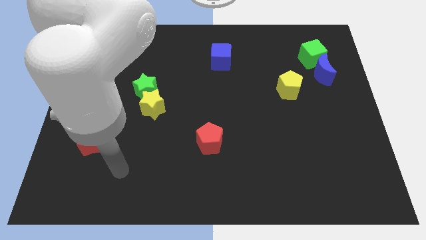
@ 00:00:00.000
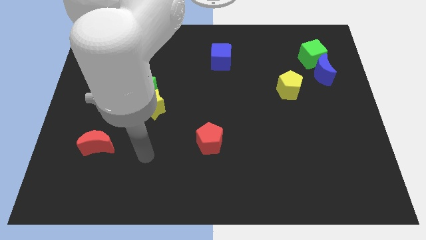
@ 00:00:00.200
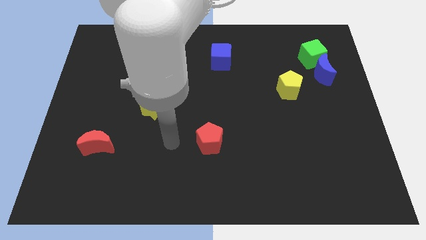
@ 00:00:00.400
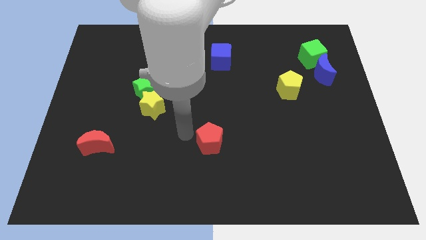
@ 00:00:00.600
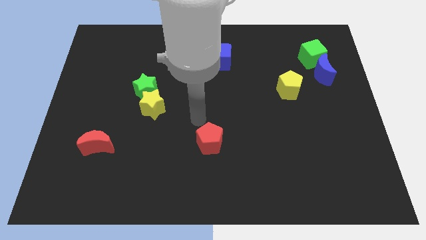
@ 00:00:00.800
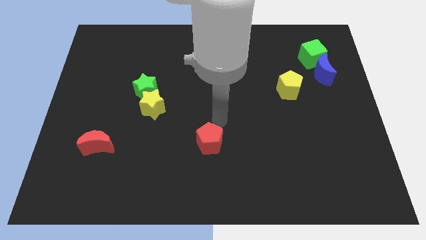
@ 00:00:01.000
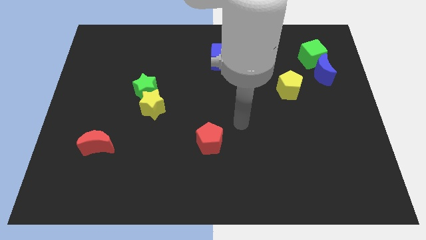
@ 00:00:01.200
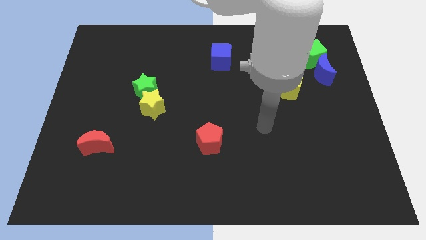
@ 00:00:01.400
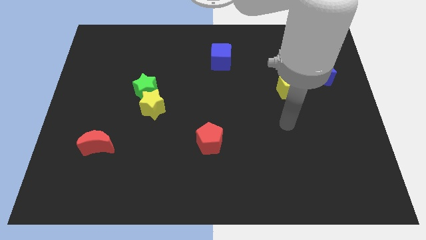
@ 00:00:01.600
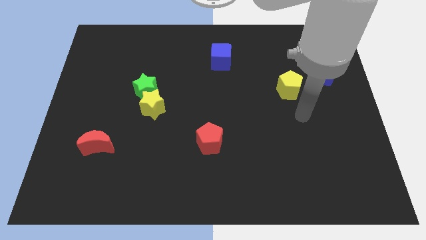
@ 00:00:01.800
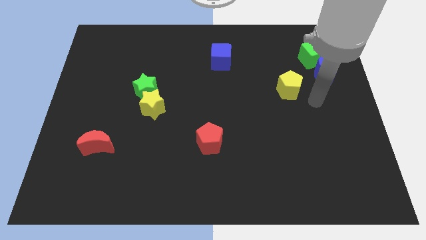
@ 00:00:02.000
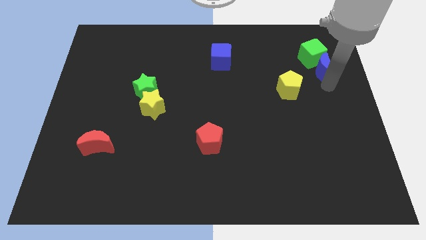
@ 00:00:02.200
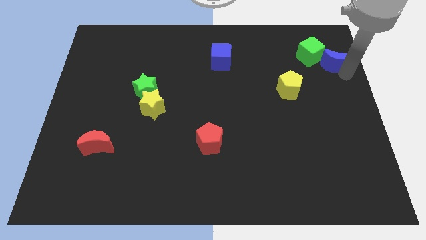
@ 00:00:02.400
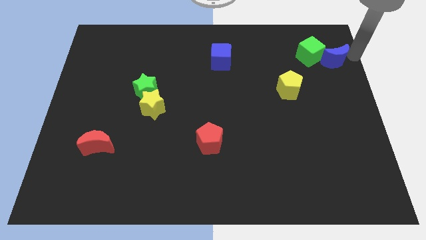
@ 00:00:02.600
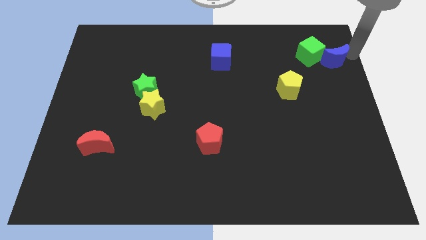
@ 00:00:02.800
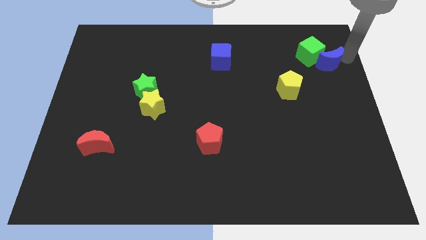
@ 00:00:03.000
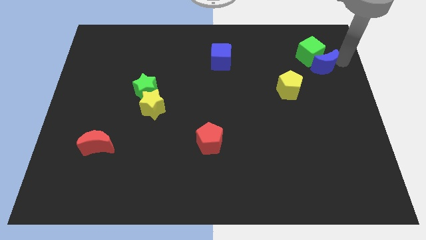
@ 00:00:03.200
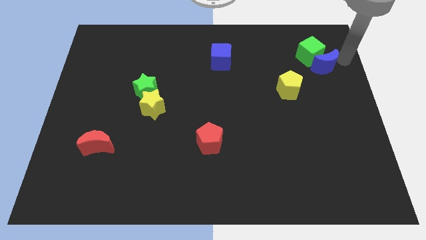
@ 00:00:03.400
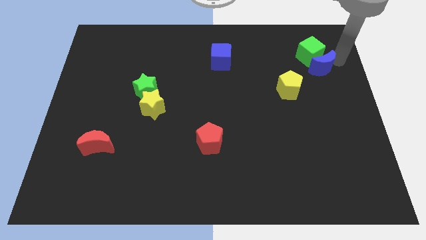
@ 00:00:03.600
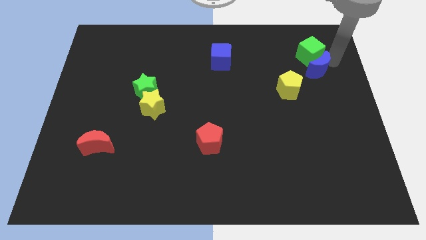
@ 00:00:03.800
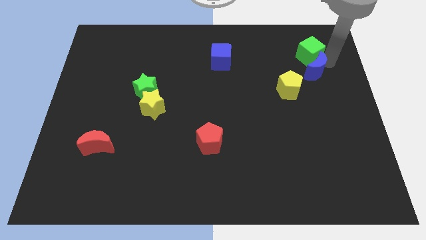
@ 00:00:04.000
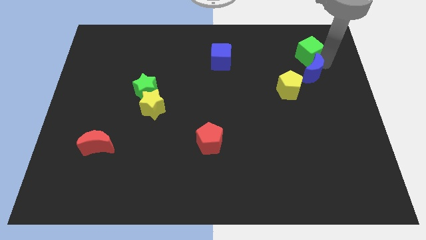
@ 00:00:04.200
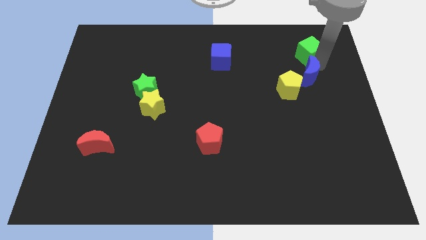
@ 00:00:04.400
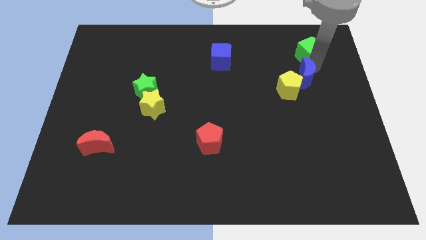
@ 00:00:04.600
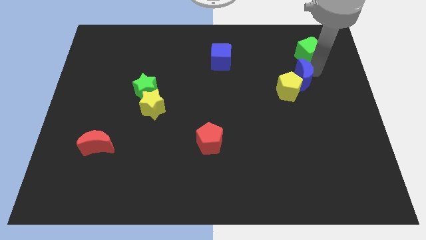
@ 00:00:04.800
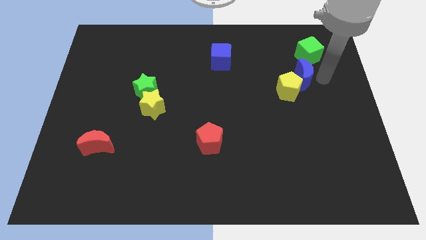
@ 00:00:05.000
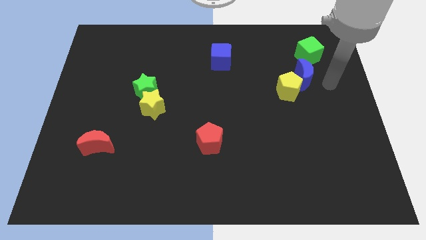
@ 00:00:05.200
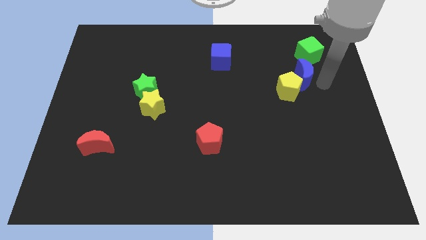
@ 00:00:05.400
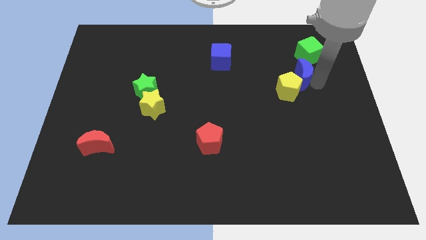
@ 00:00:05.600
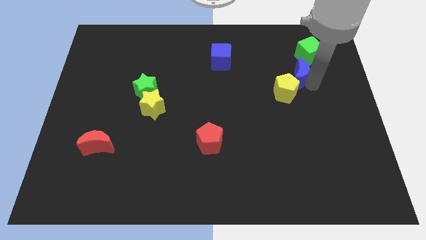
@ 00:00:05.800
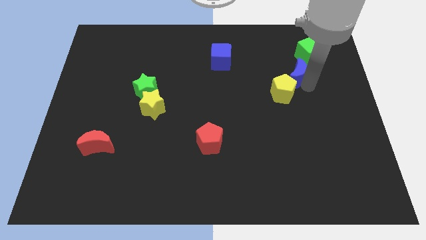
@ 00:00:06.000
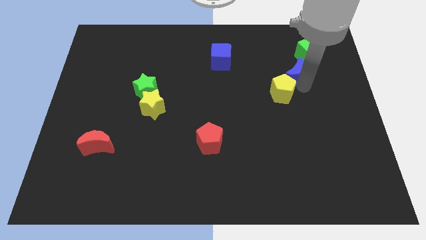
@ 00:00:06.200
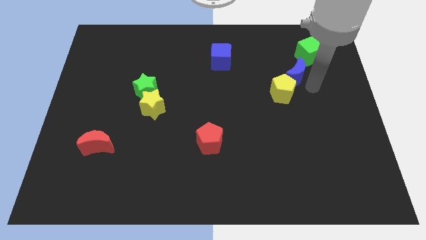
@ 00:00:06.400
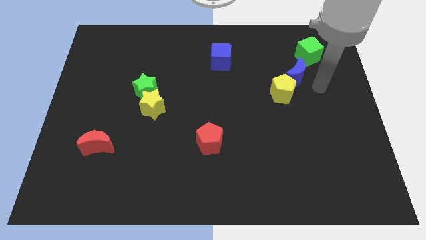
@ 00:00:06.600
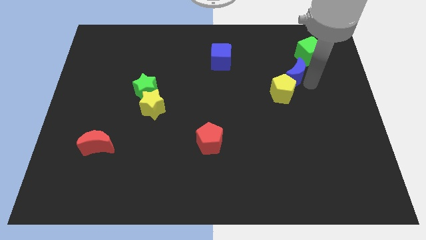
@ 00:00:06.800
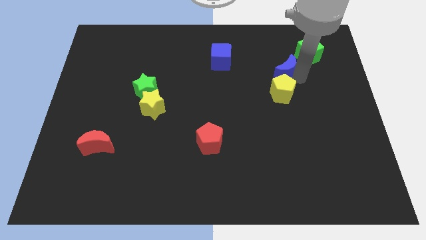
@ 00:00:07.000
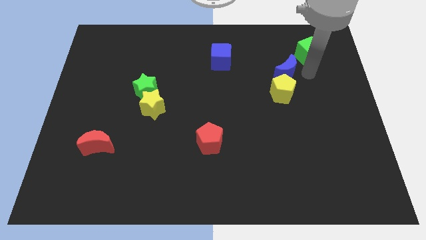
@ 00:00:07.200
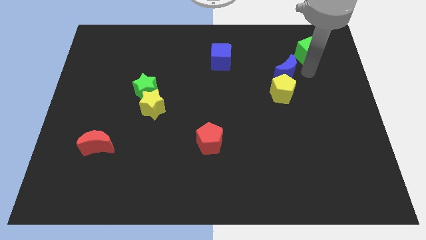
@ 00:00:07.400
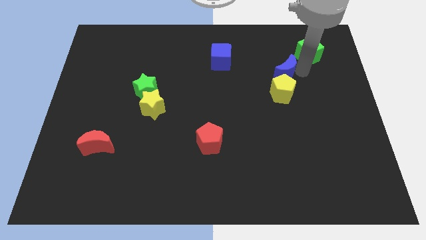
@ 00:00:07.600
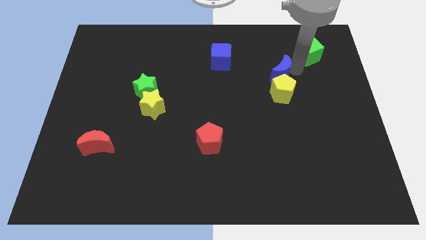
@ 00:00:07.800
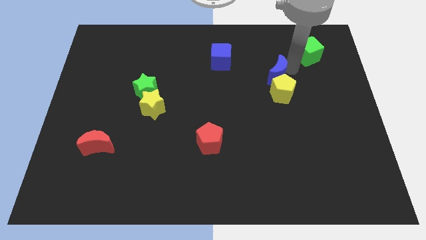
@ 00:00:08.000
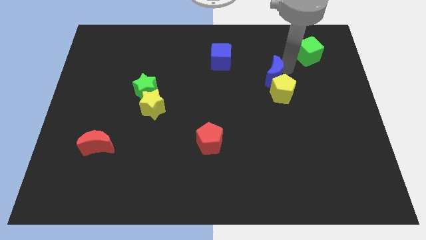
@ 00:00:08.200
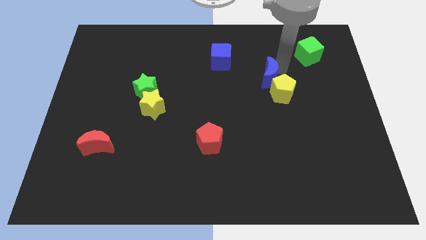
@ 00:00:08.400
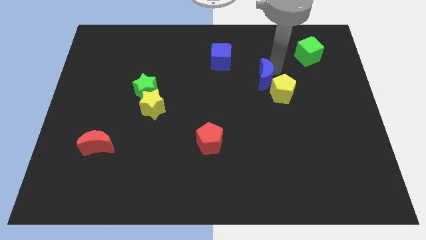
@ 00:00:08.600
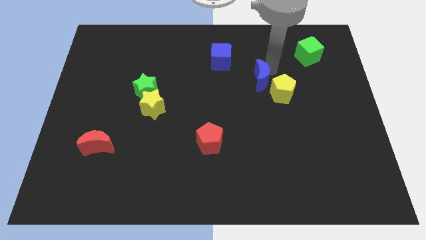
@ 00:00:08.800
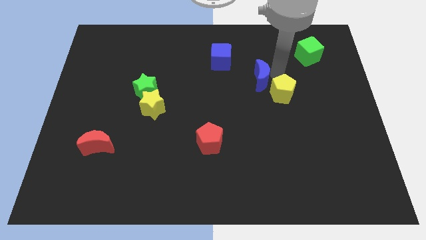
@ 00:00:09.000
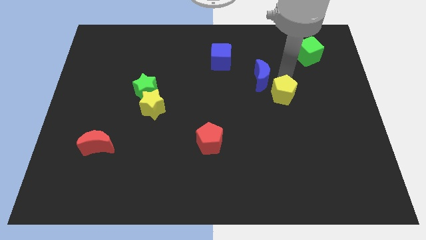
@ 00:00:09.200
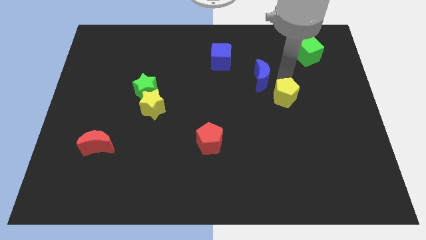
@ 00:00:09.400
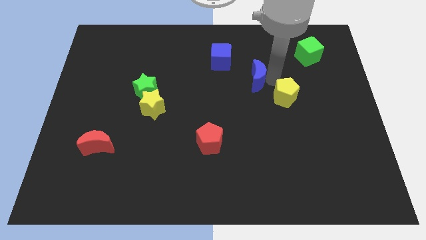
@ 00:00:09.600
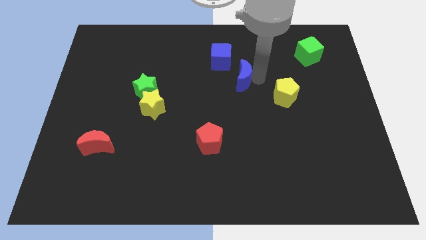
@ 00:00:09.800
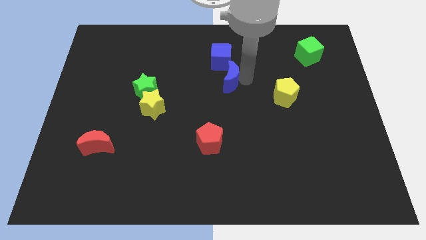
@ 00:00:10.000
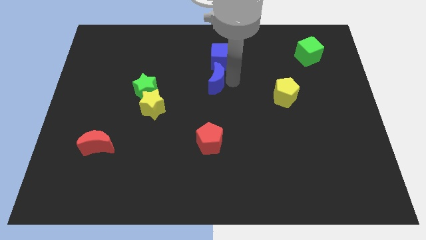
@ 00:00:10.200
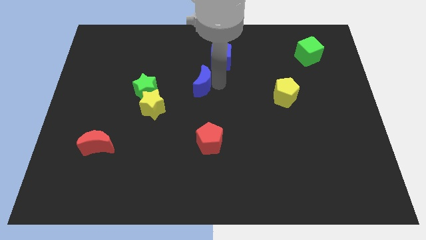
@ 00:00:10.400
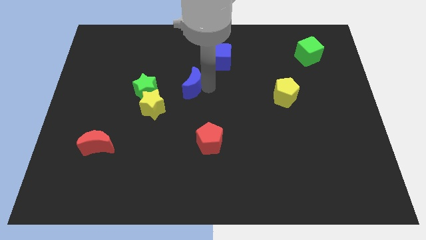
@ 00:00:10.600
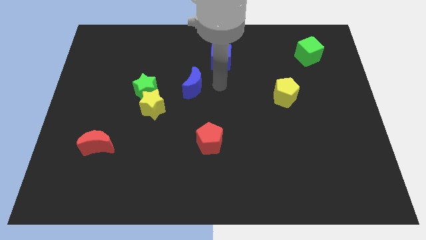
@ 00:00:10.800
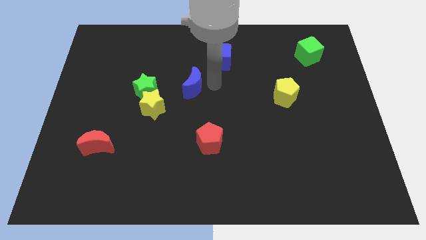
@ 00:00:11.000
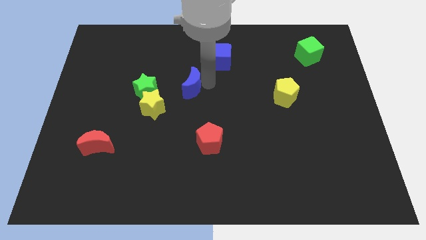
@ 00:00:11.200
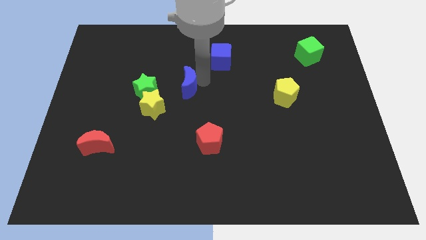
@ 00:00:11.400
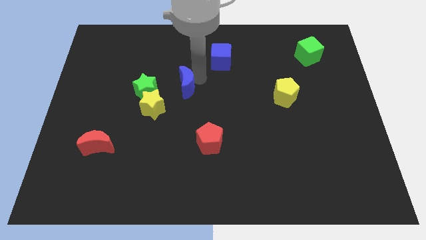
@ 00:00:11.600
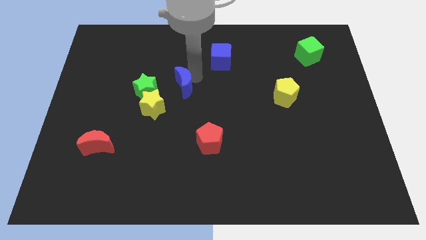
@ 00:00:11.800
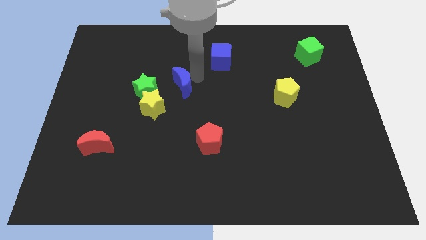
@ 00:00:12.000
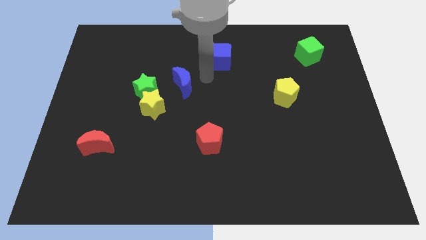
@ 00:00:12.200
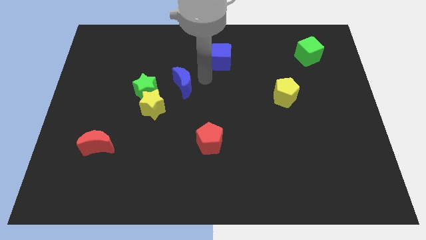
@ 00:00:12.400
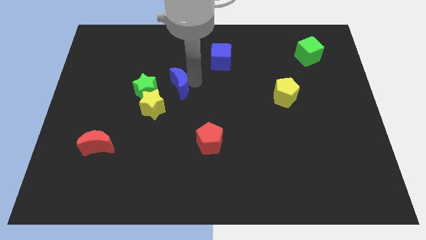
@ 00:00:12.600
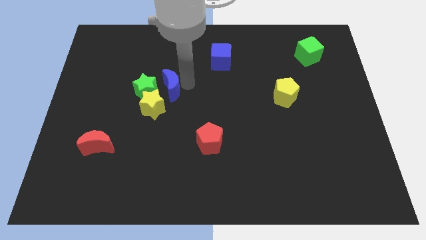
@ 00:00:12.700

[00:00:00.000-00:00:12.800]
push the blue moon close to the green star
